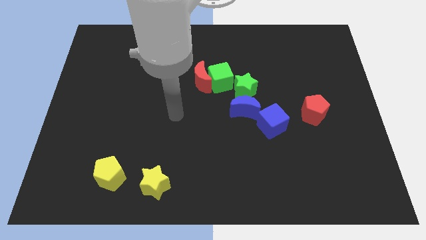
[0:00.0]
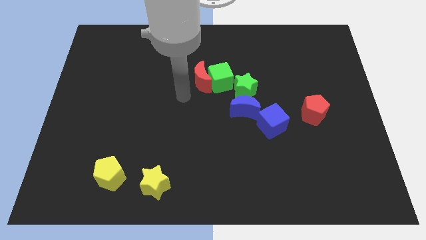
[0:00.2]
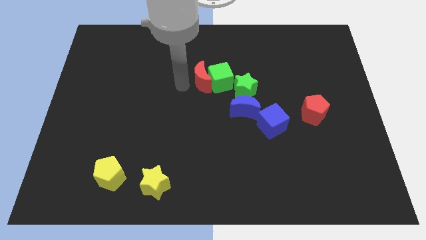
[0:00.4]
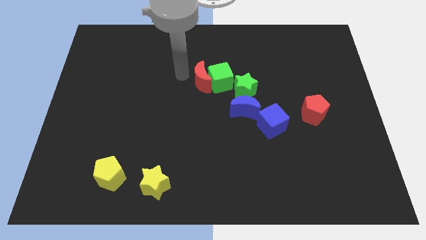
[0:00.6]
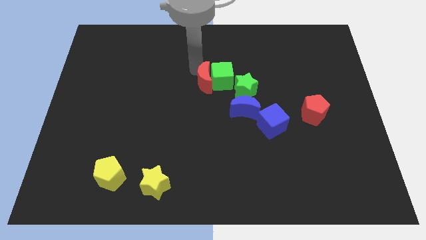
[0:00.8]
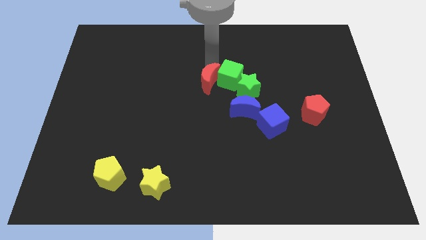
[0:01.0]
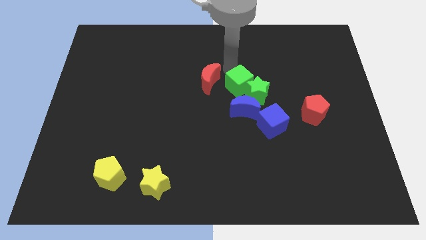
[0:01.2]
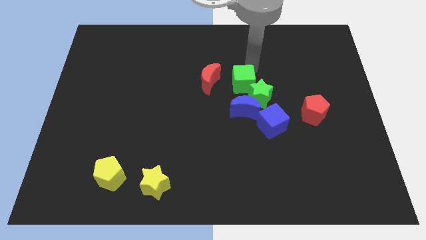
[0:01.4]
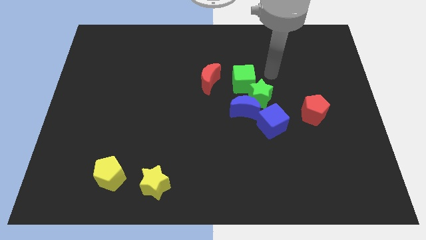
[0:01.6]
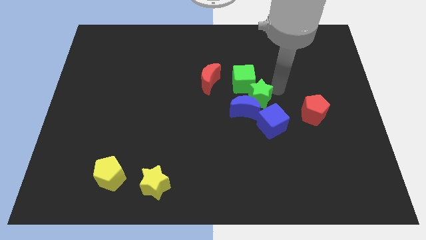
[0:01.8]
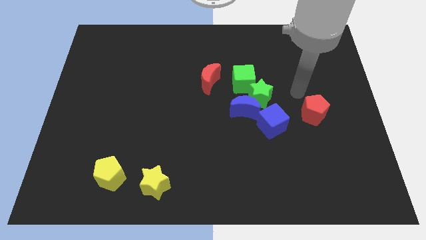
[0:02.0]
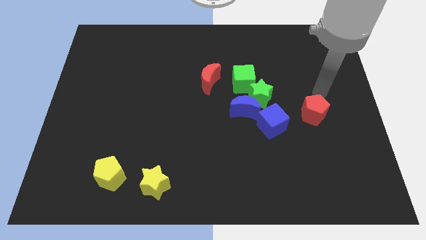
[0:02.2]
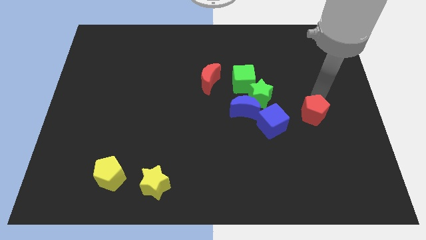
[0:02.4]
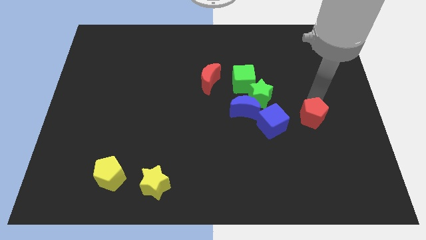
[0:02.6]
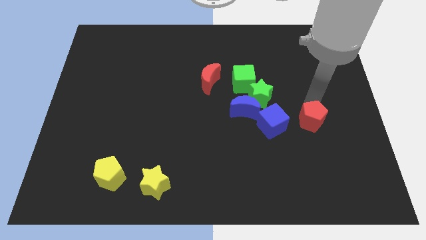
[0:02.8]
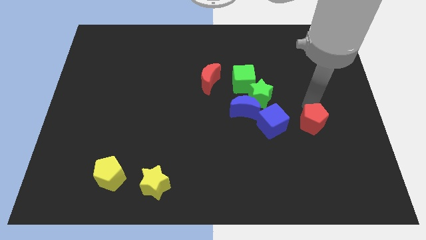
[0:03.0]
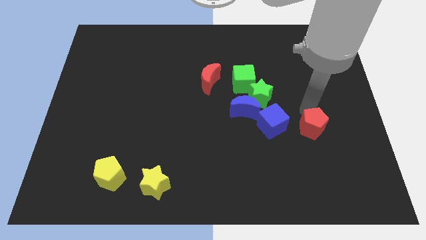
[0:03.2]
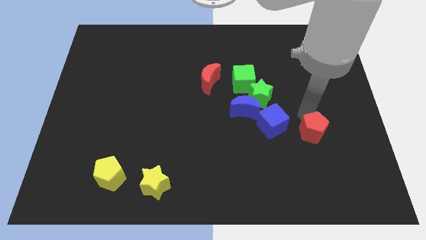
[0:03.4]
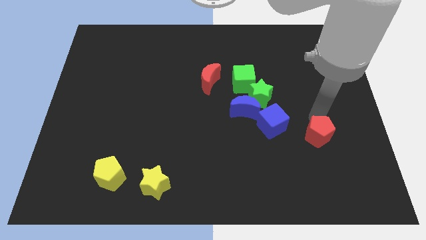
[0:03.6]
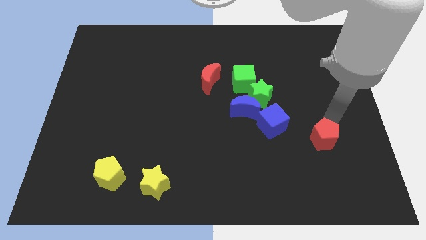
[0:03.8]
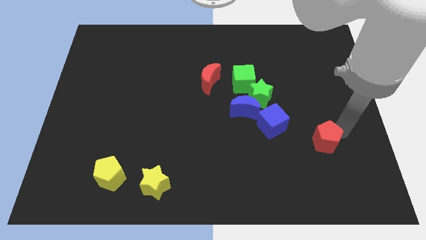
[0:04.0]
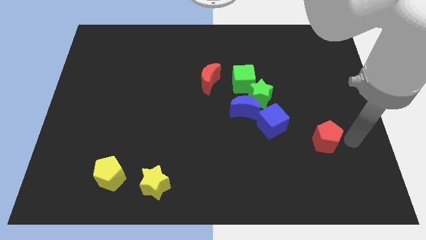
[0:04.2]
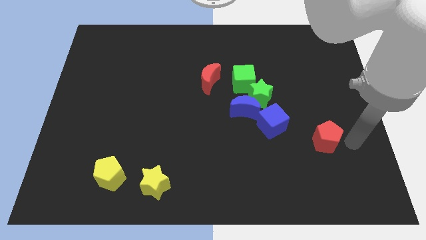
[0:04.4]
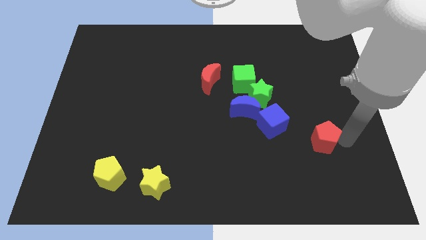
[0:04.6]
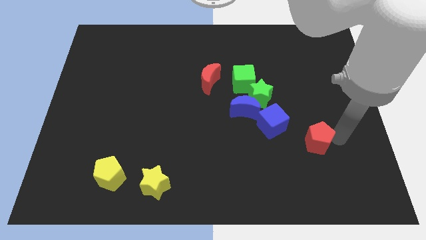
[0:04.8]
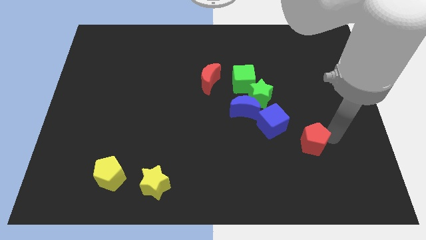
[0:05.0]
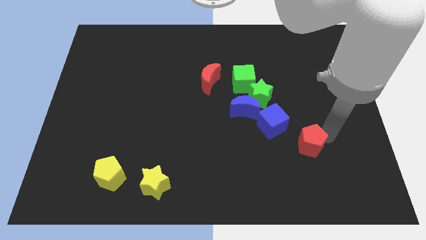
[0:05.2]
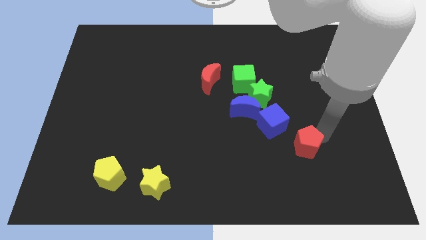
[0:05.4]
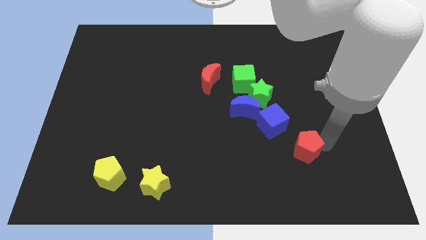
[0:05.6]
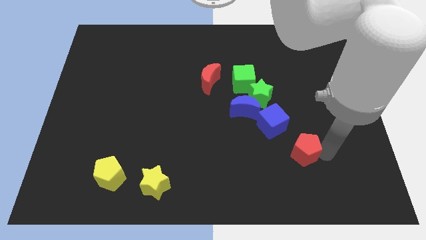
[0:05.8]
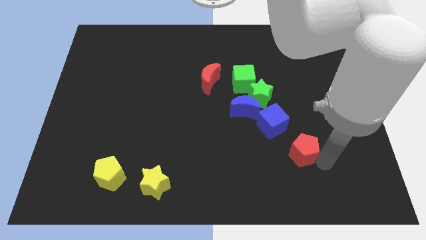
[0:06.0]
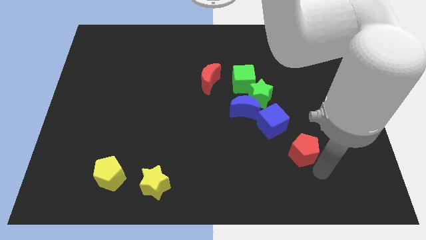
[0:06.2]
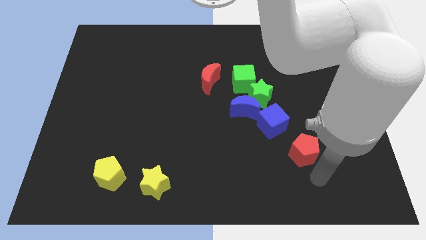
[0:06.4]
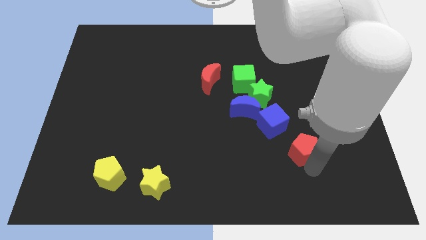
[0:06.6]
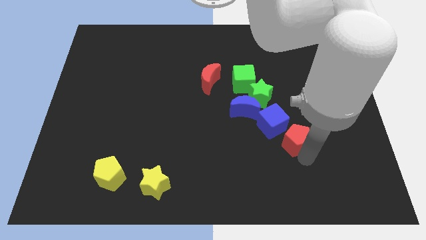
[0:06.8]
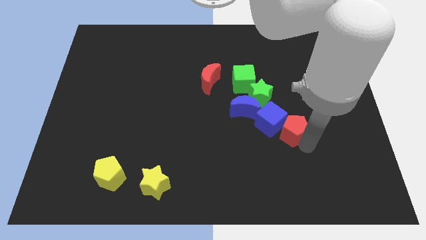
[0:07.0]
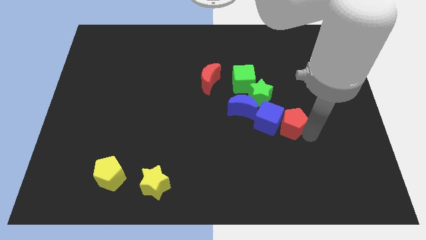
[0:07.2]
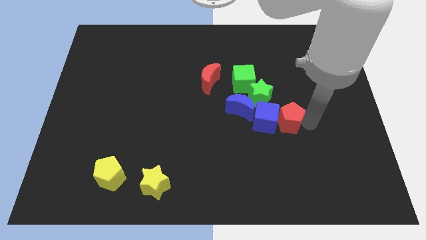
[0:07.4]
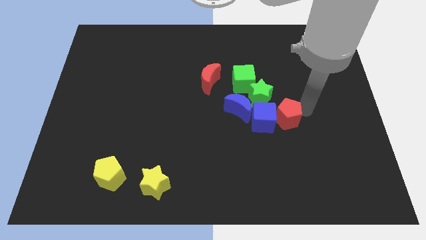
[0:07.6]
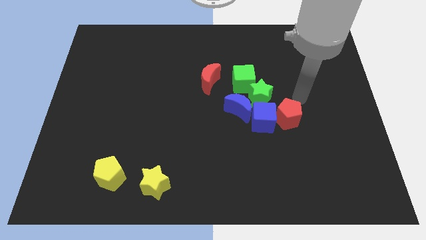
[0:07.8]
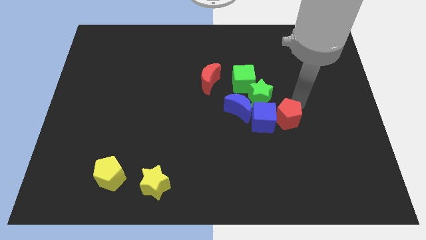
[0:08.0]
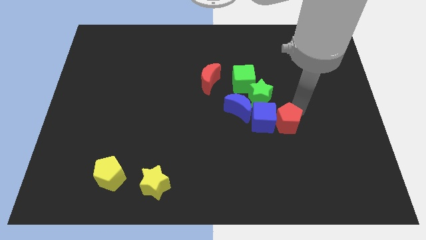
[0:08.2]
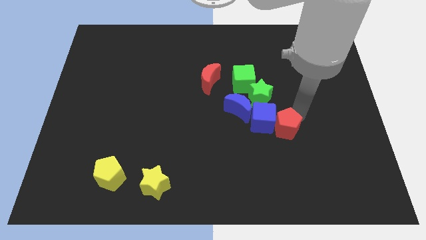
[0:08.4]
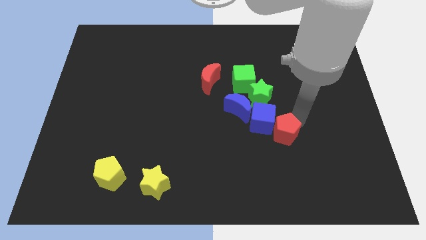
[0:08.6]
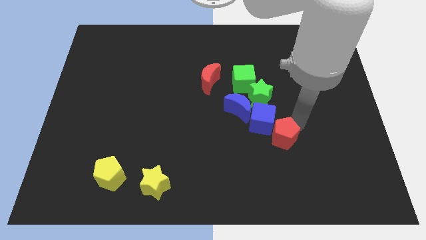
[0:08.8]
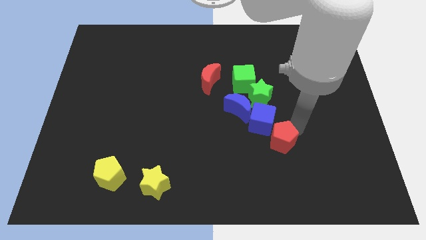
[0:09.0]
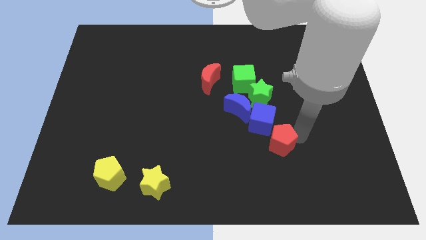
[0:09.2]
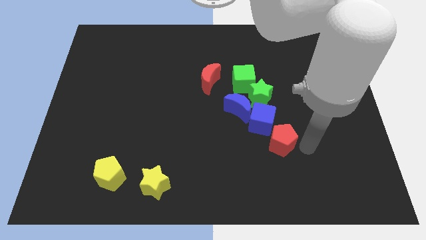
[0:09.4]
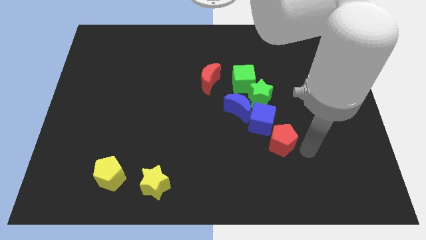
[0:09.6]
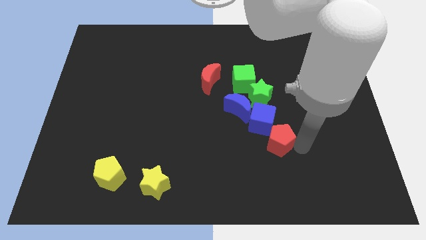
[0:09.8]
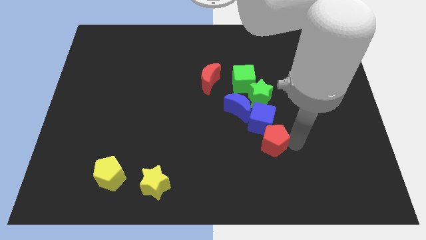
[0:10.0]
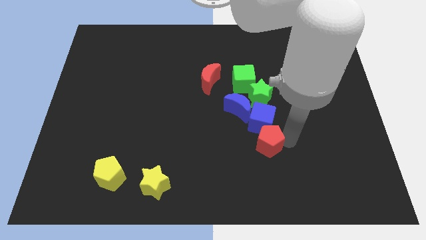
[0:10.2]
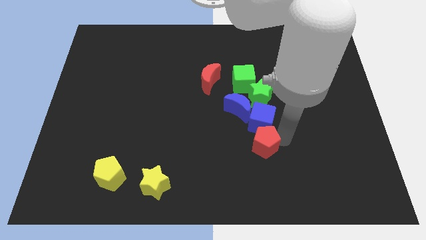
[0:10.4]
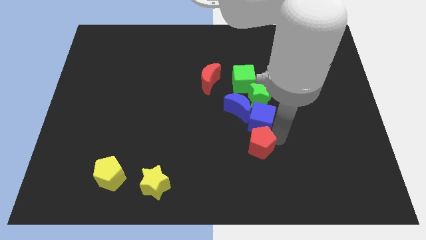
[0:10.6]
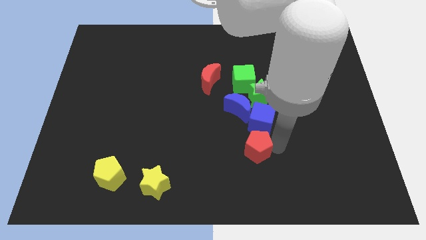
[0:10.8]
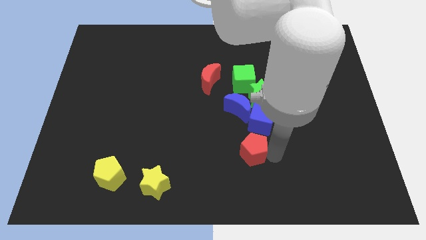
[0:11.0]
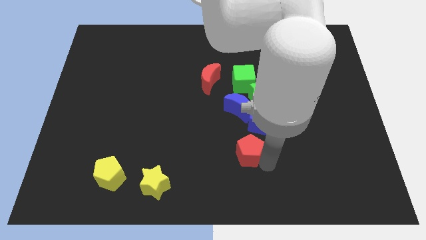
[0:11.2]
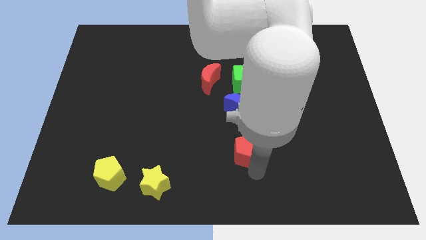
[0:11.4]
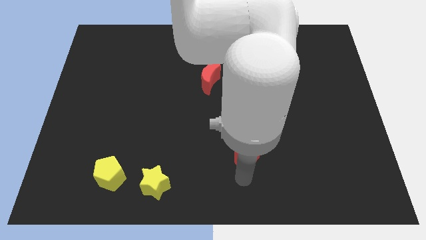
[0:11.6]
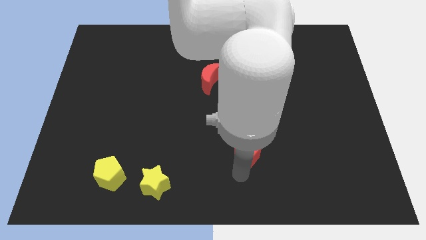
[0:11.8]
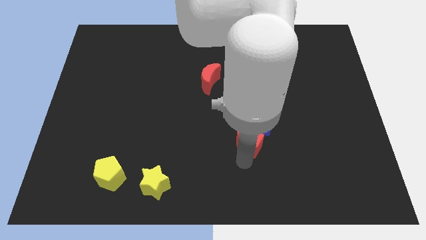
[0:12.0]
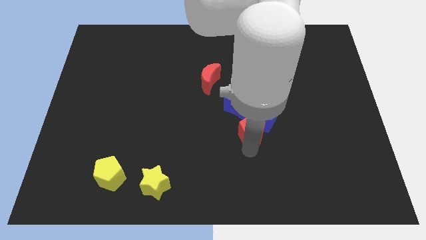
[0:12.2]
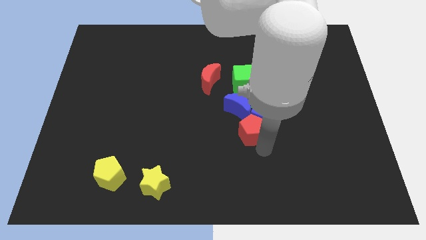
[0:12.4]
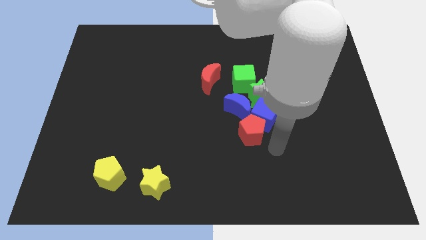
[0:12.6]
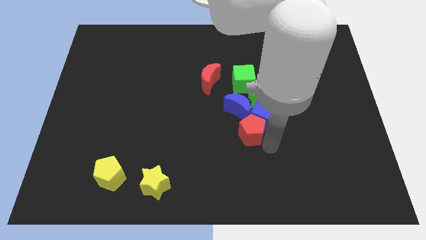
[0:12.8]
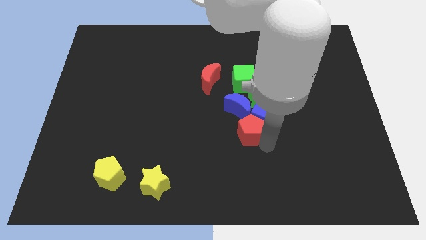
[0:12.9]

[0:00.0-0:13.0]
put the red pentagon to the middle
